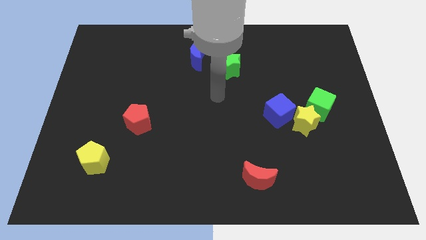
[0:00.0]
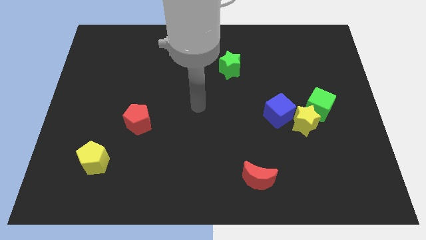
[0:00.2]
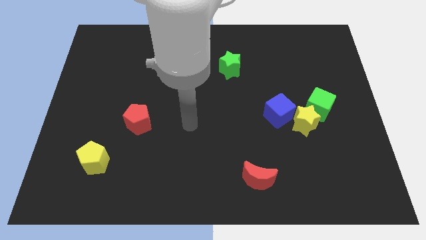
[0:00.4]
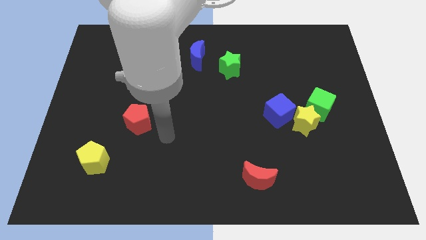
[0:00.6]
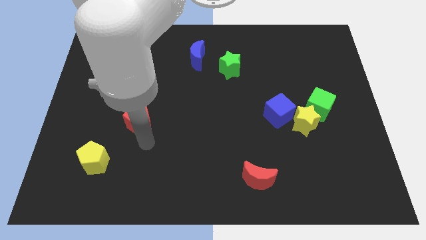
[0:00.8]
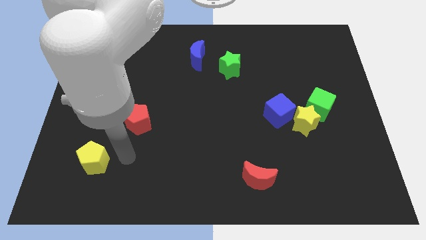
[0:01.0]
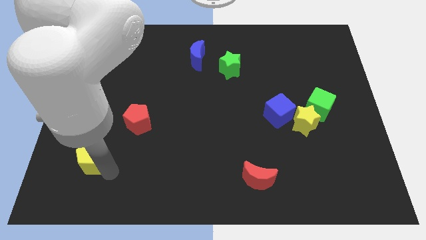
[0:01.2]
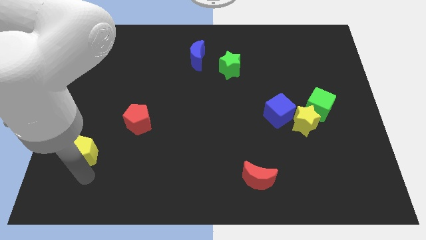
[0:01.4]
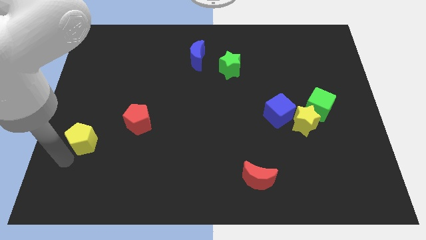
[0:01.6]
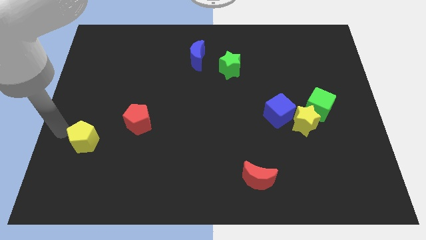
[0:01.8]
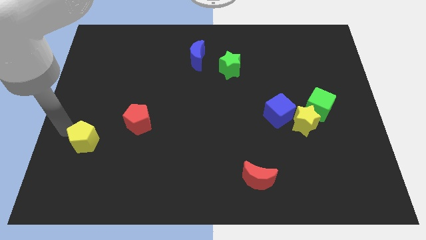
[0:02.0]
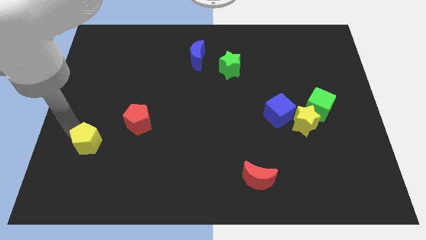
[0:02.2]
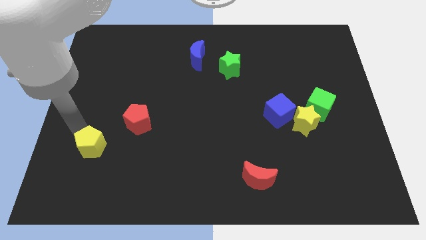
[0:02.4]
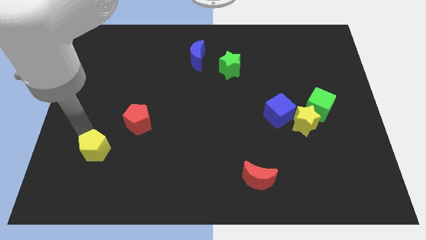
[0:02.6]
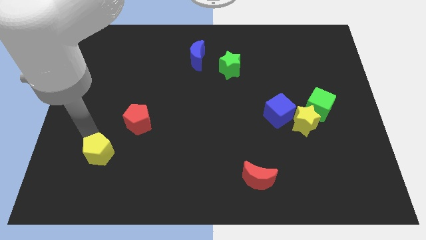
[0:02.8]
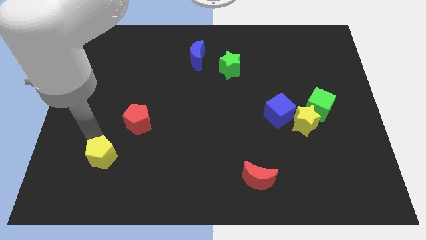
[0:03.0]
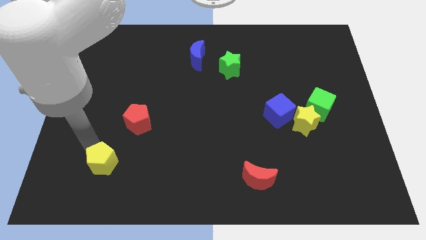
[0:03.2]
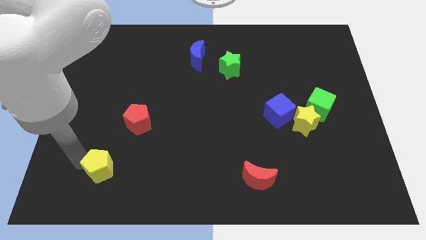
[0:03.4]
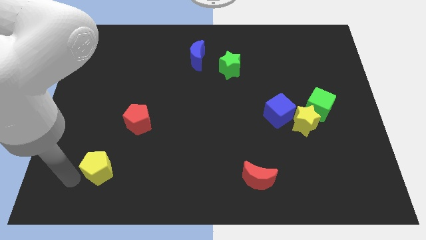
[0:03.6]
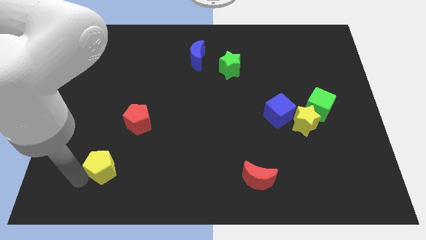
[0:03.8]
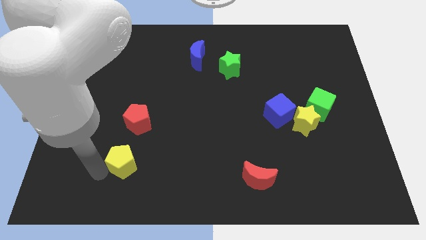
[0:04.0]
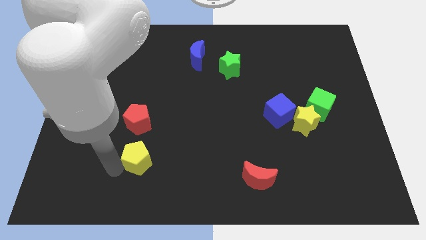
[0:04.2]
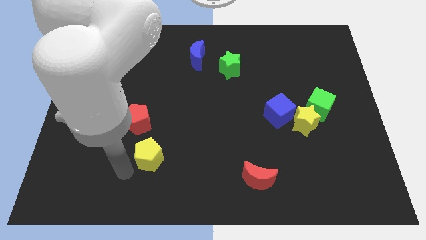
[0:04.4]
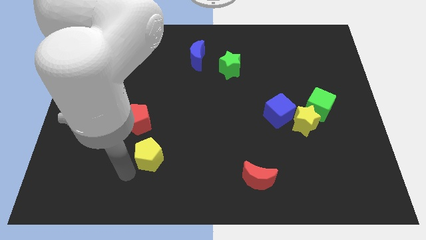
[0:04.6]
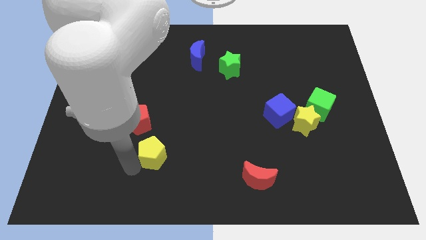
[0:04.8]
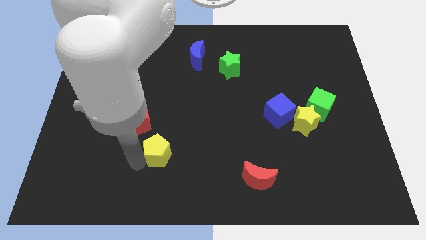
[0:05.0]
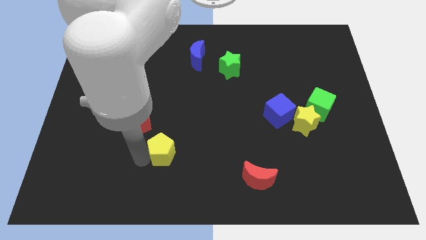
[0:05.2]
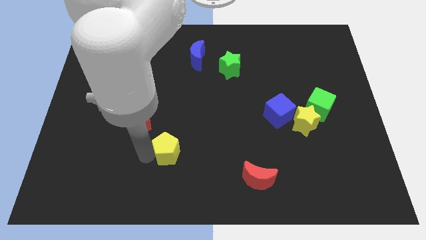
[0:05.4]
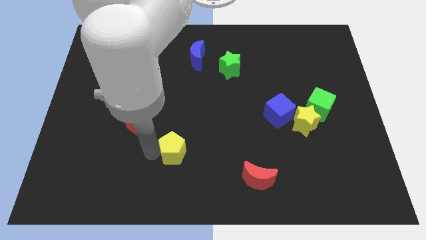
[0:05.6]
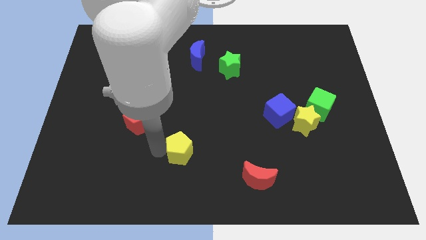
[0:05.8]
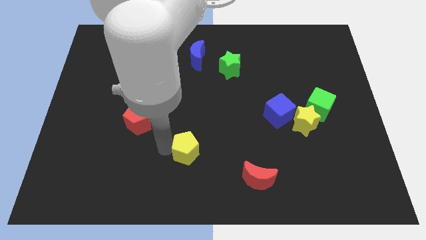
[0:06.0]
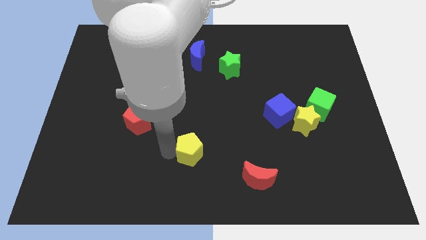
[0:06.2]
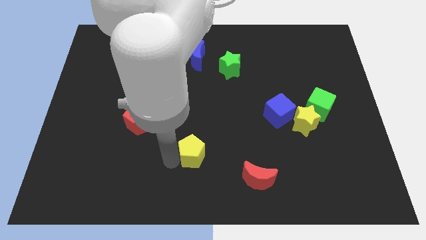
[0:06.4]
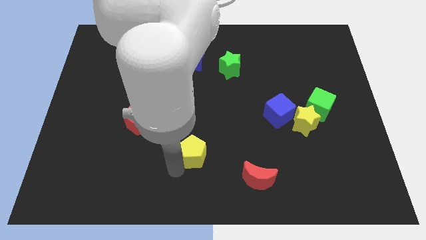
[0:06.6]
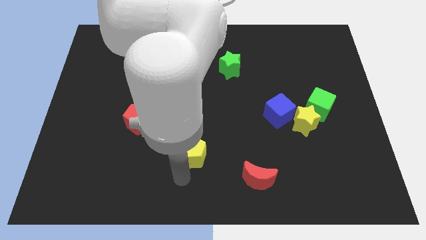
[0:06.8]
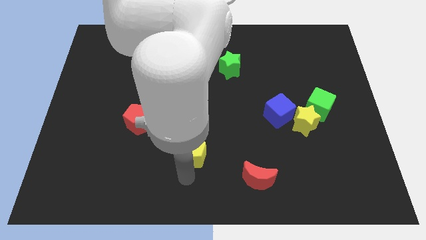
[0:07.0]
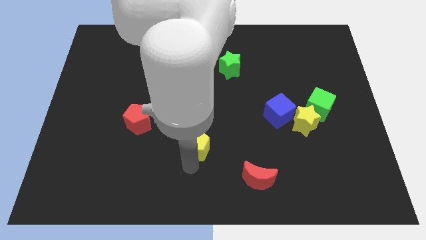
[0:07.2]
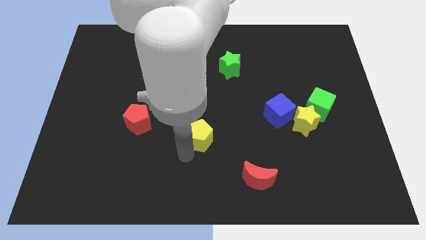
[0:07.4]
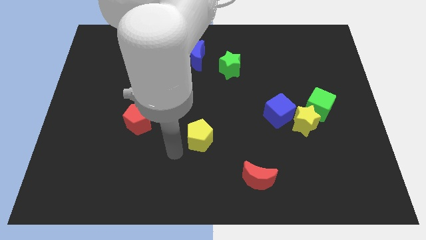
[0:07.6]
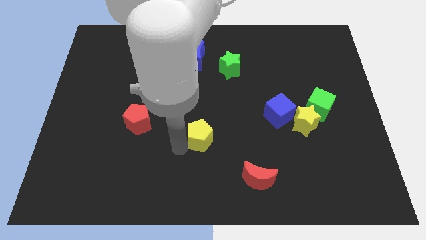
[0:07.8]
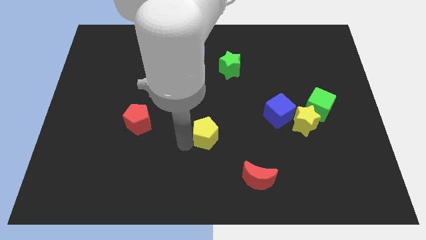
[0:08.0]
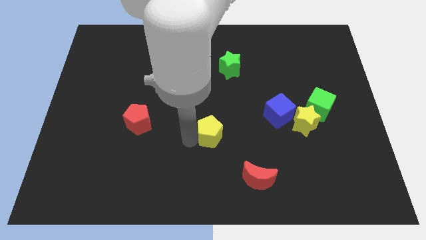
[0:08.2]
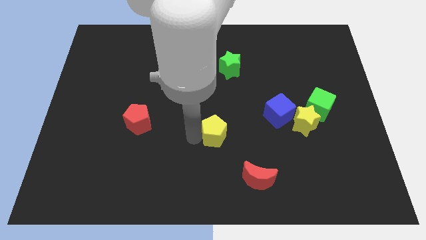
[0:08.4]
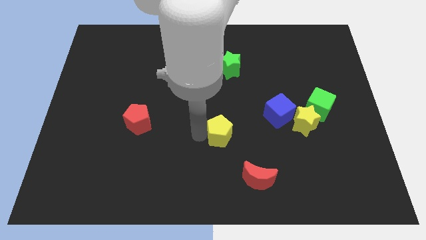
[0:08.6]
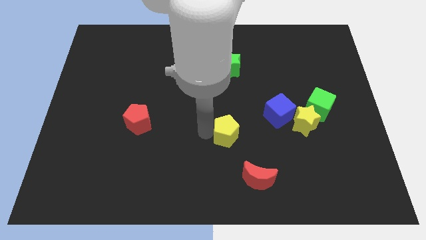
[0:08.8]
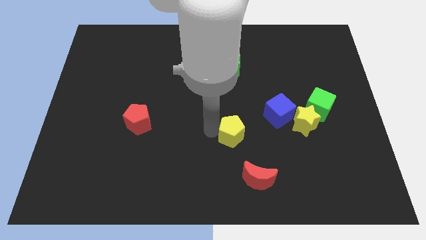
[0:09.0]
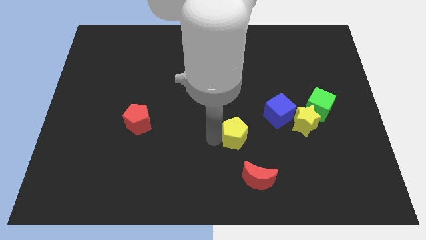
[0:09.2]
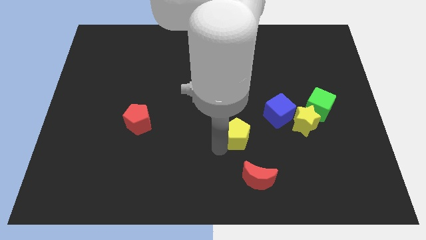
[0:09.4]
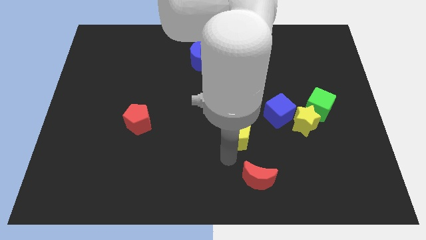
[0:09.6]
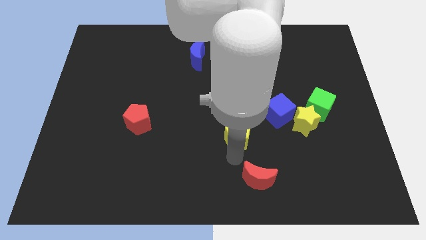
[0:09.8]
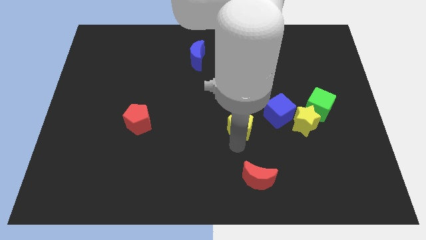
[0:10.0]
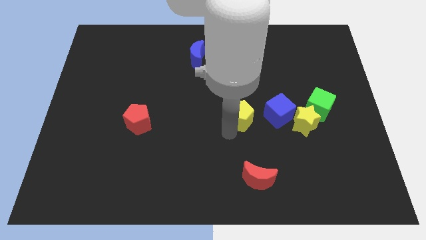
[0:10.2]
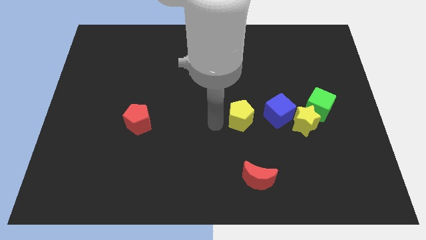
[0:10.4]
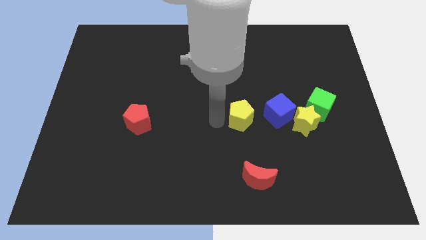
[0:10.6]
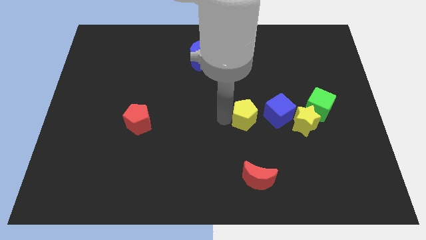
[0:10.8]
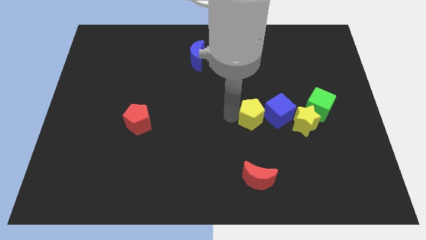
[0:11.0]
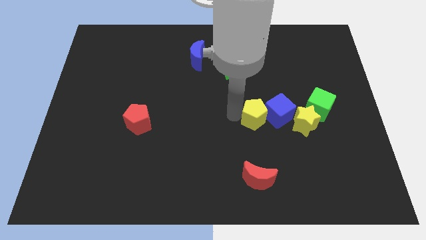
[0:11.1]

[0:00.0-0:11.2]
slide the yellow pentagon close to the blue cube

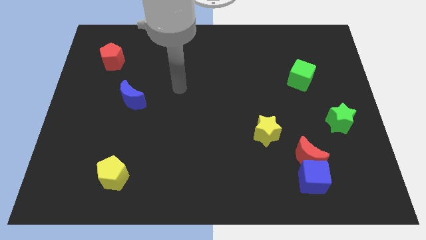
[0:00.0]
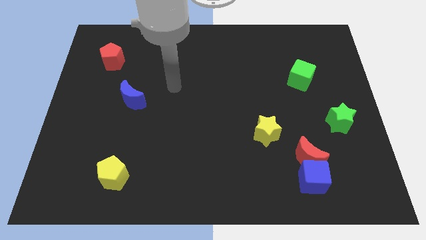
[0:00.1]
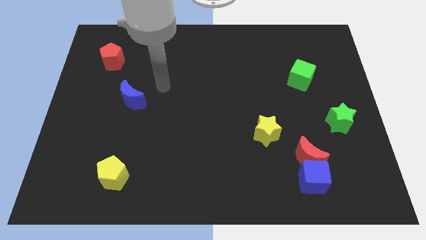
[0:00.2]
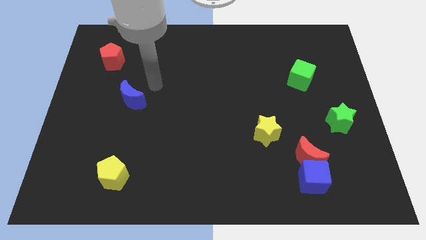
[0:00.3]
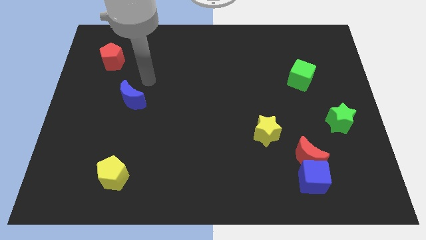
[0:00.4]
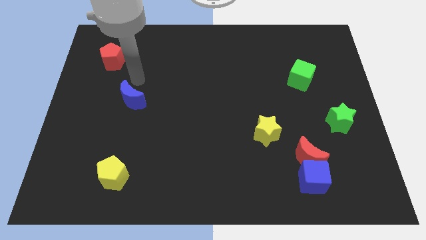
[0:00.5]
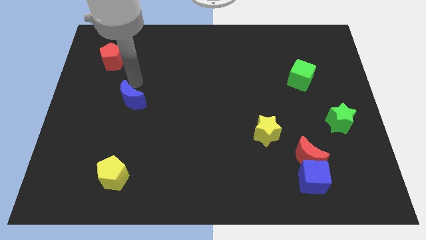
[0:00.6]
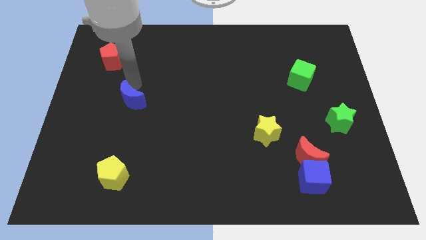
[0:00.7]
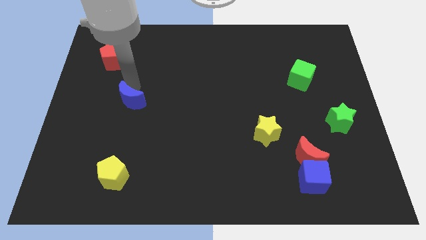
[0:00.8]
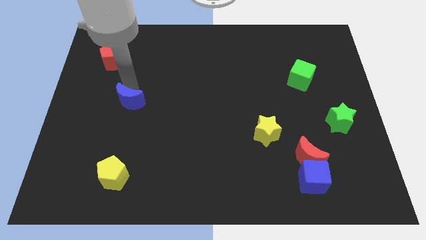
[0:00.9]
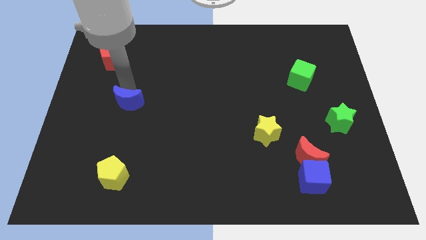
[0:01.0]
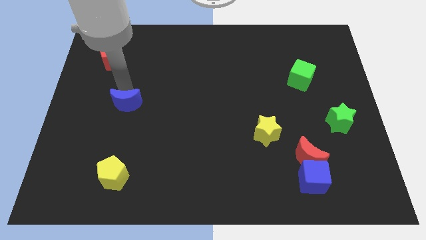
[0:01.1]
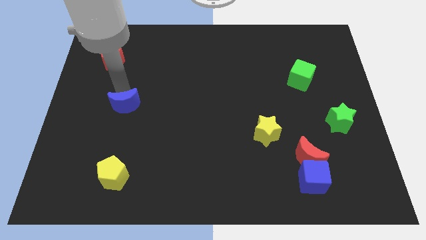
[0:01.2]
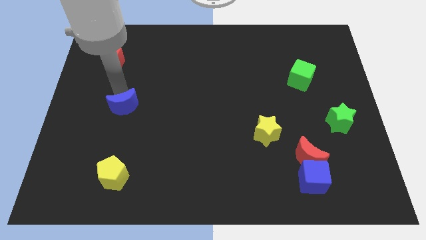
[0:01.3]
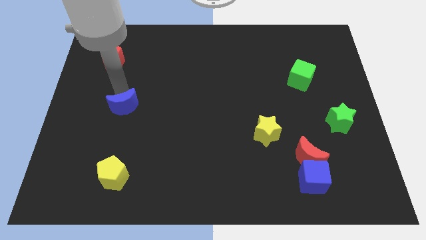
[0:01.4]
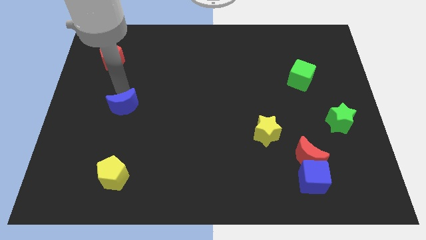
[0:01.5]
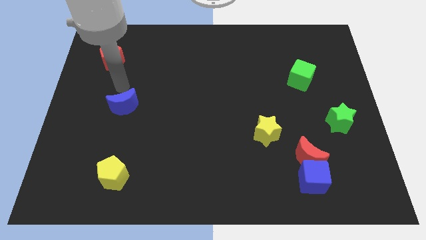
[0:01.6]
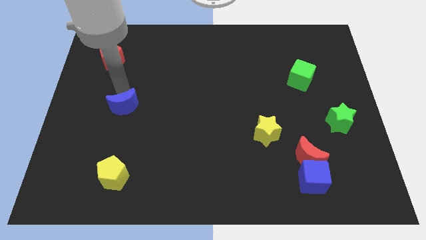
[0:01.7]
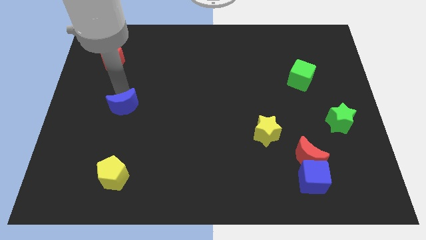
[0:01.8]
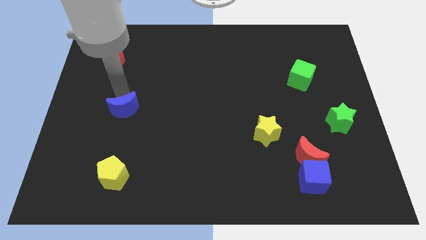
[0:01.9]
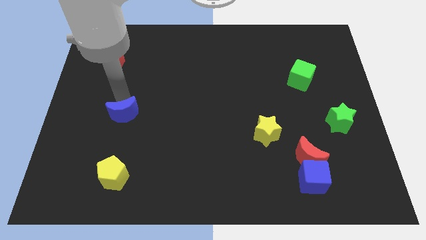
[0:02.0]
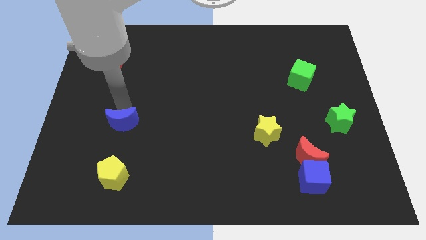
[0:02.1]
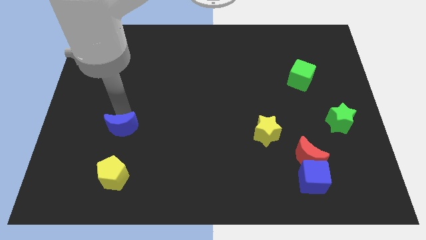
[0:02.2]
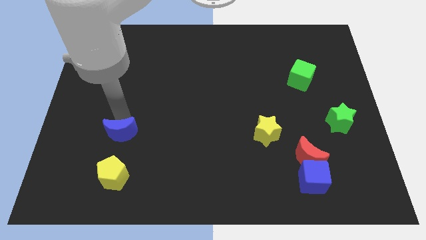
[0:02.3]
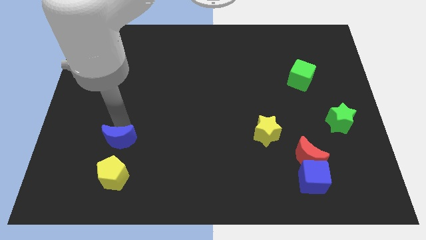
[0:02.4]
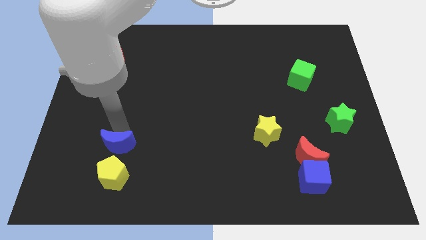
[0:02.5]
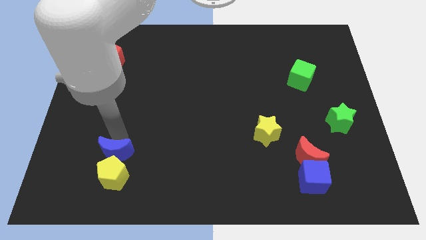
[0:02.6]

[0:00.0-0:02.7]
put the blue moon towards the yellow pentagon
